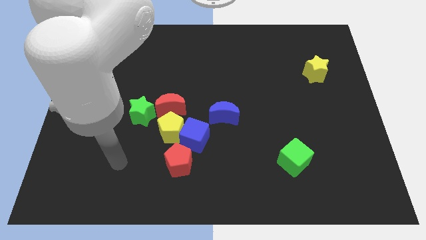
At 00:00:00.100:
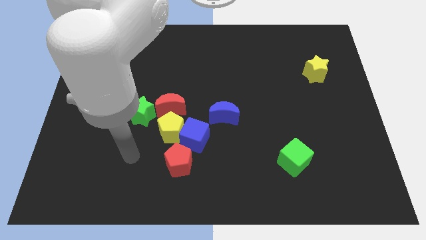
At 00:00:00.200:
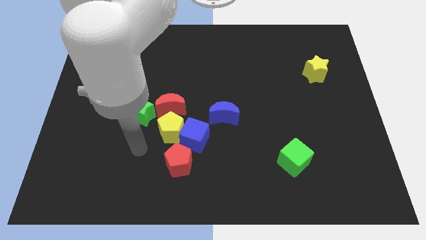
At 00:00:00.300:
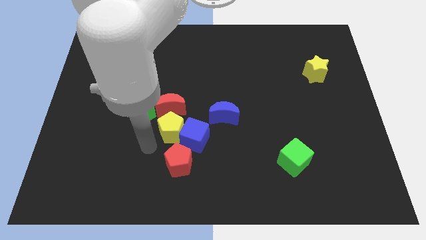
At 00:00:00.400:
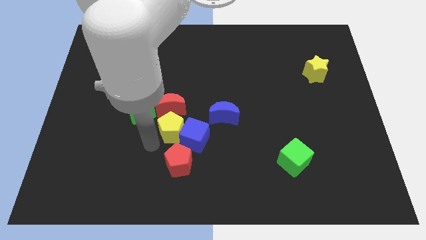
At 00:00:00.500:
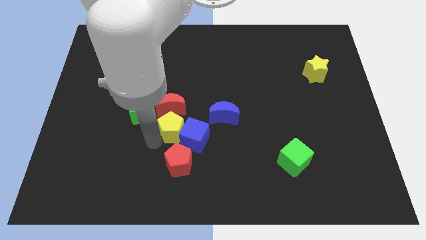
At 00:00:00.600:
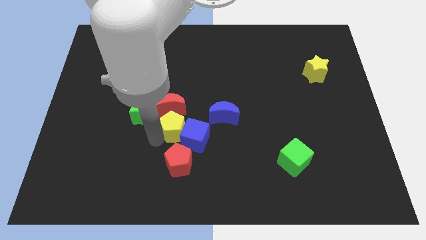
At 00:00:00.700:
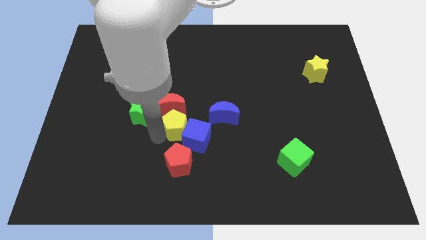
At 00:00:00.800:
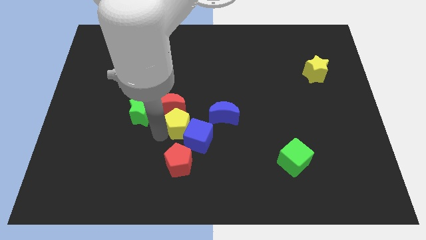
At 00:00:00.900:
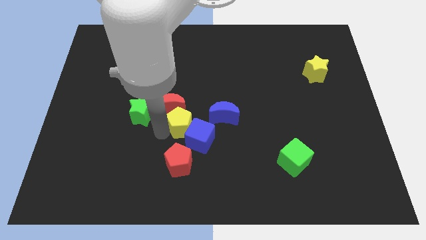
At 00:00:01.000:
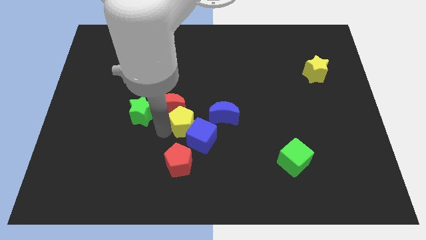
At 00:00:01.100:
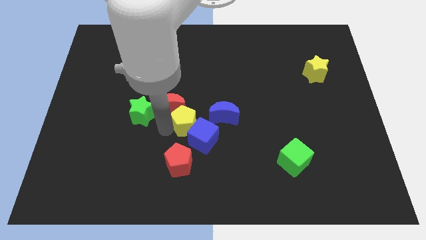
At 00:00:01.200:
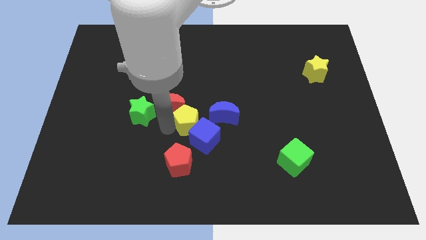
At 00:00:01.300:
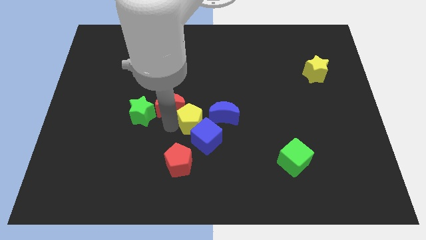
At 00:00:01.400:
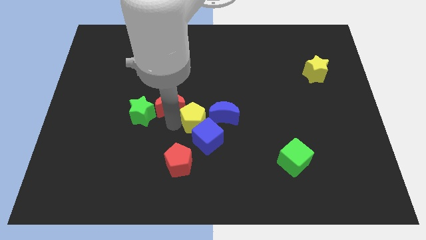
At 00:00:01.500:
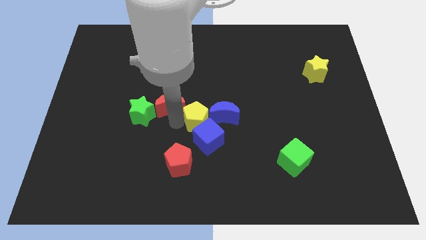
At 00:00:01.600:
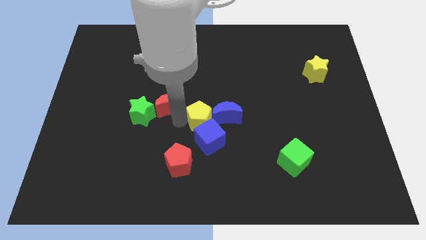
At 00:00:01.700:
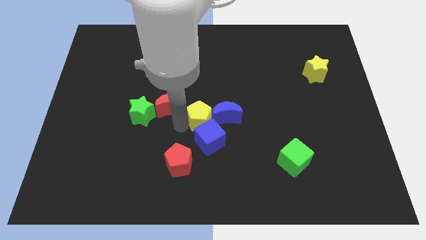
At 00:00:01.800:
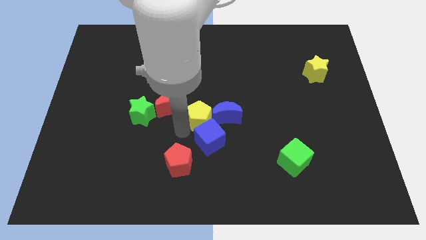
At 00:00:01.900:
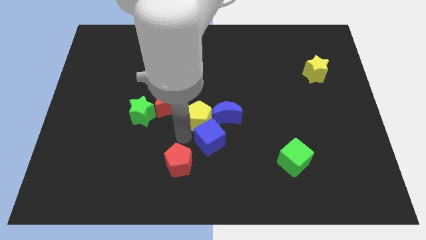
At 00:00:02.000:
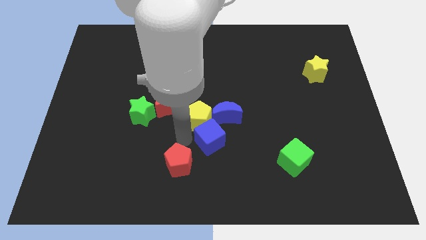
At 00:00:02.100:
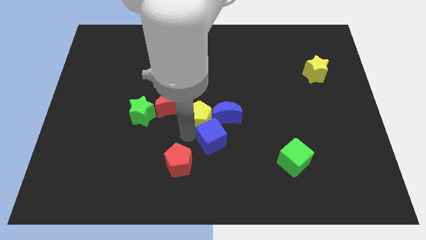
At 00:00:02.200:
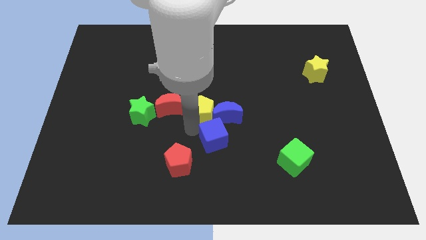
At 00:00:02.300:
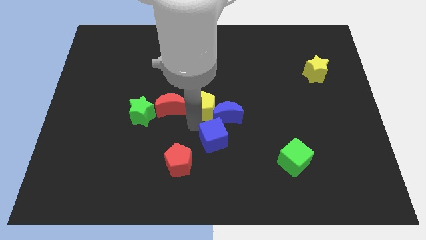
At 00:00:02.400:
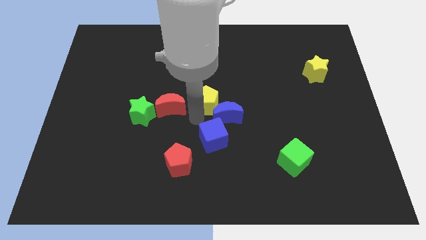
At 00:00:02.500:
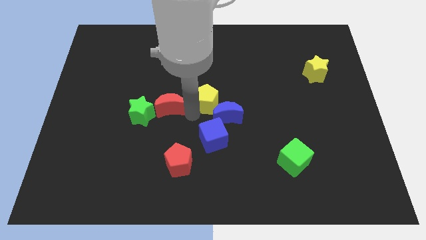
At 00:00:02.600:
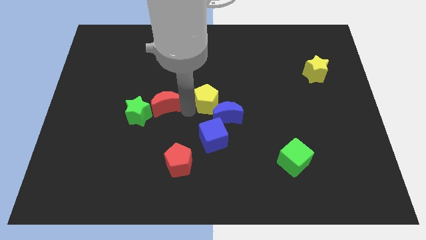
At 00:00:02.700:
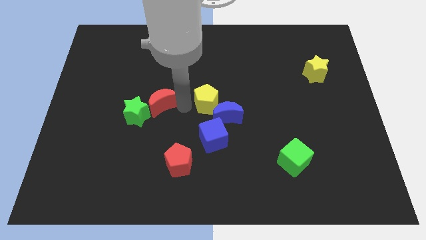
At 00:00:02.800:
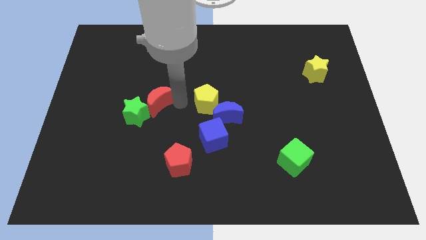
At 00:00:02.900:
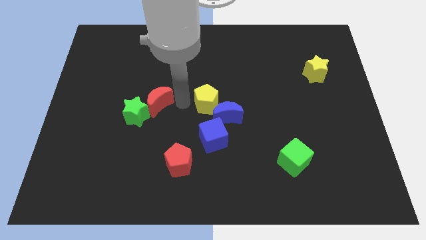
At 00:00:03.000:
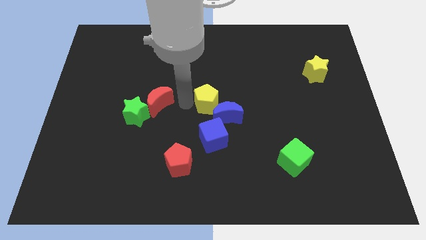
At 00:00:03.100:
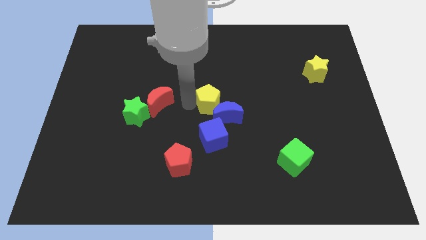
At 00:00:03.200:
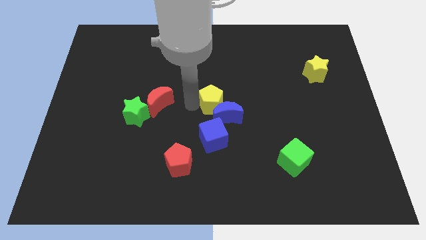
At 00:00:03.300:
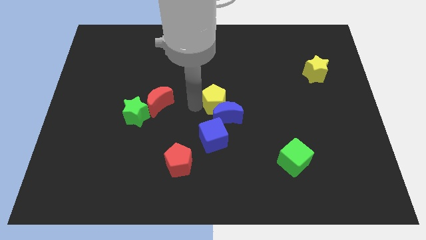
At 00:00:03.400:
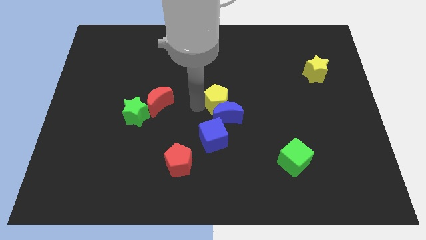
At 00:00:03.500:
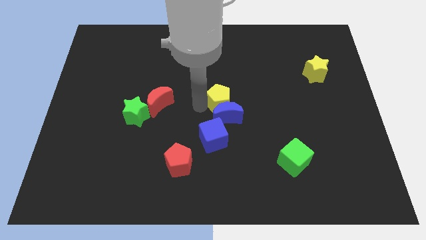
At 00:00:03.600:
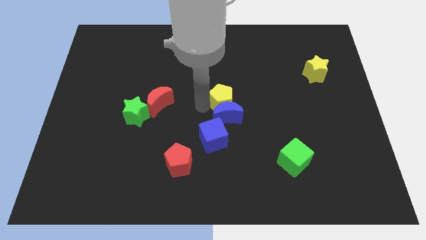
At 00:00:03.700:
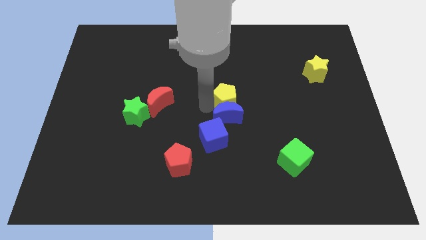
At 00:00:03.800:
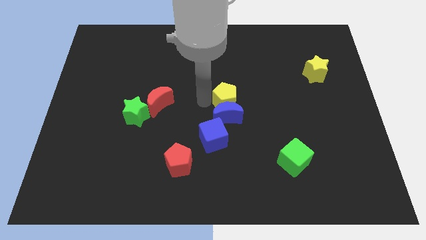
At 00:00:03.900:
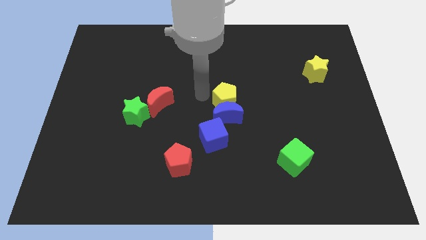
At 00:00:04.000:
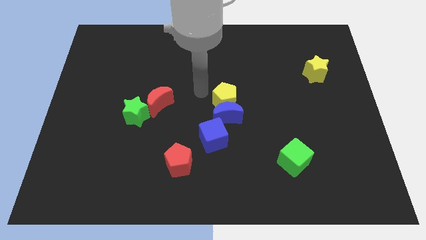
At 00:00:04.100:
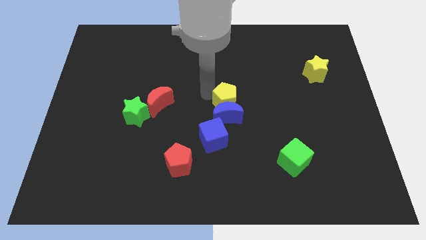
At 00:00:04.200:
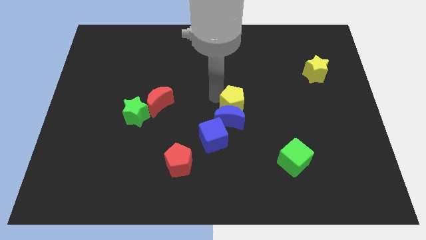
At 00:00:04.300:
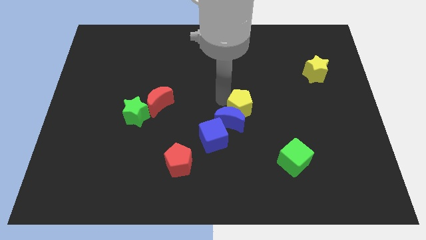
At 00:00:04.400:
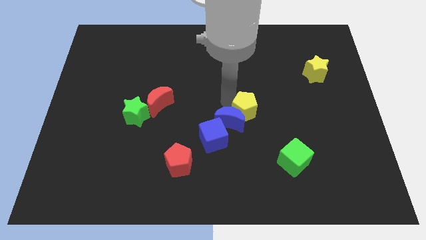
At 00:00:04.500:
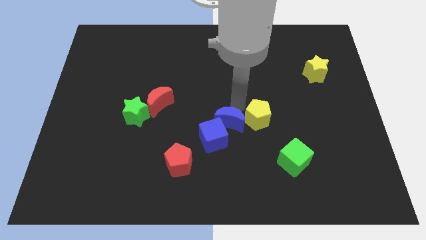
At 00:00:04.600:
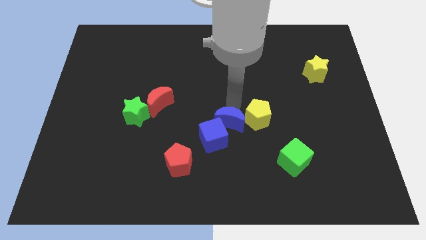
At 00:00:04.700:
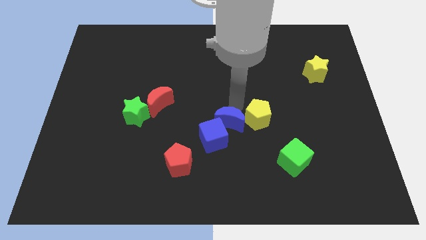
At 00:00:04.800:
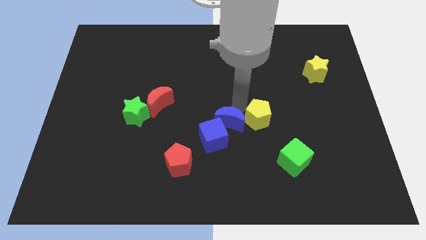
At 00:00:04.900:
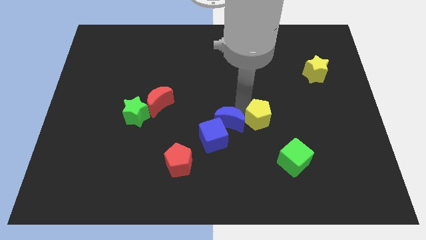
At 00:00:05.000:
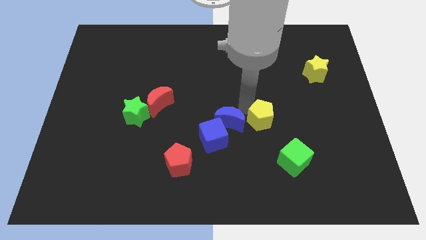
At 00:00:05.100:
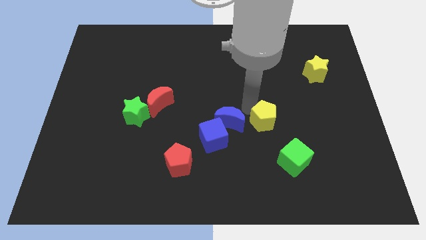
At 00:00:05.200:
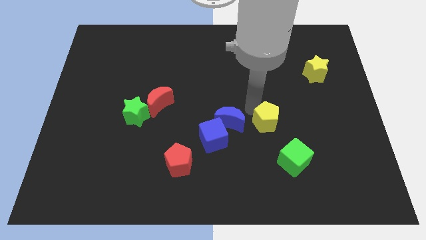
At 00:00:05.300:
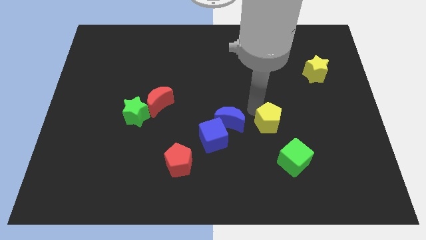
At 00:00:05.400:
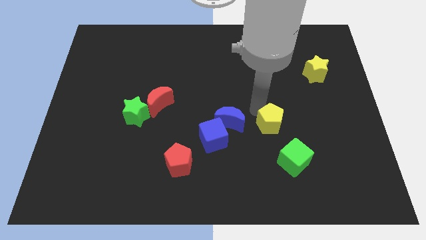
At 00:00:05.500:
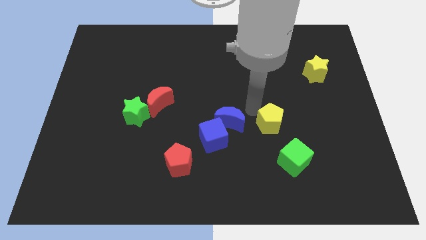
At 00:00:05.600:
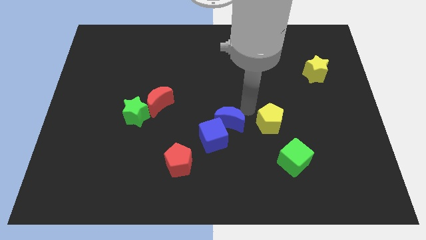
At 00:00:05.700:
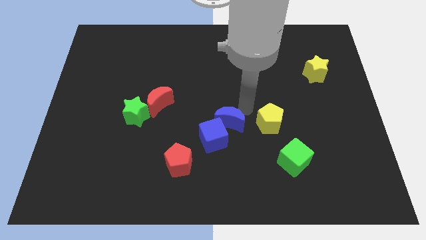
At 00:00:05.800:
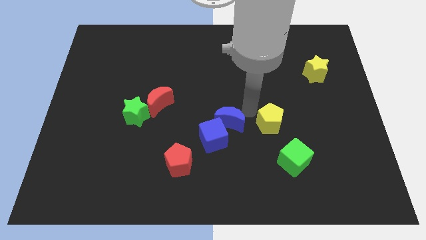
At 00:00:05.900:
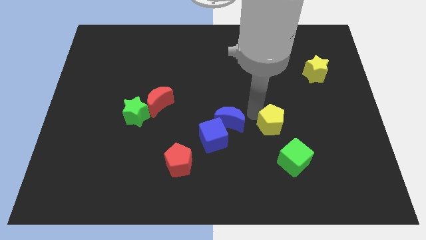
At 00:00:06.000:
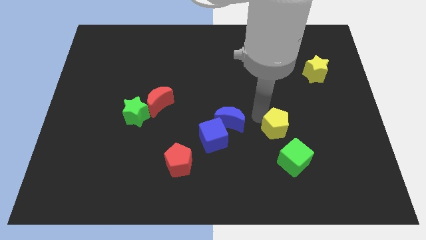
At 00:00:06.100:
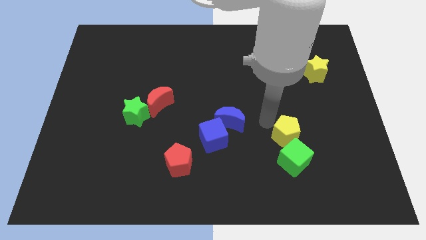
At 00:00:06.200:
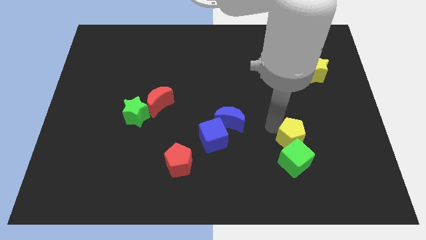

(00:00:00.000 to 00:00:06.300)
move the yellow pentagon to the top right side of the green cube
